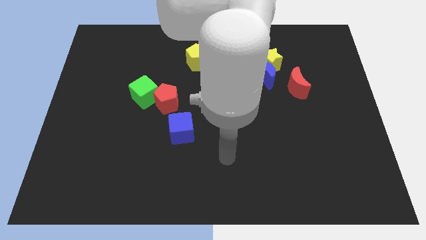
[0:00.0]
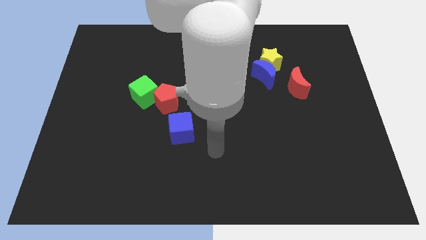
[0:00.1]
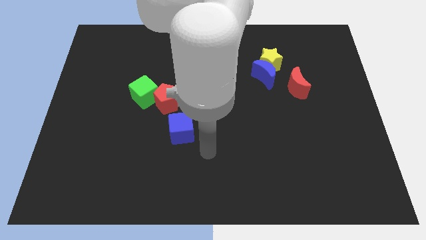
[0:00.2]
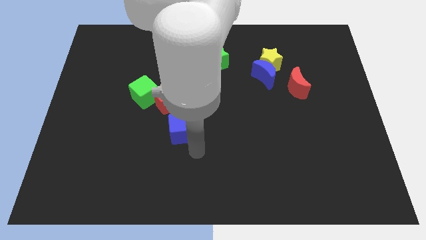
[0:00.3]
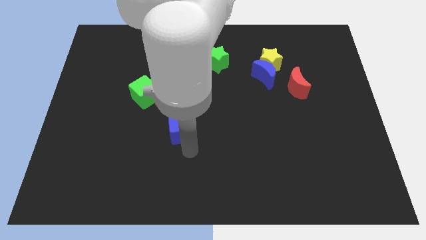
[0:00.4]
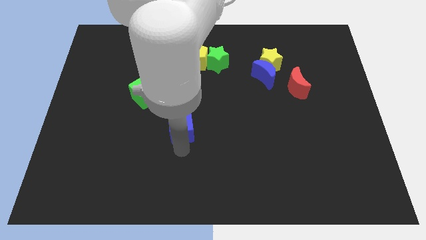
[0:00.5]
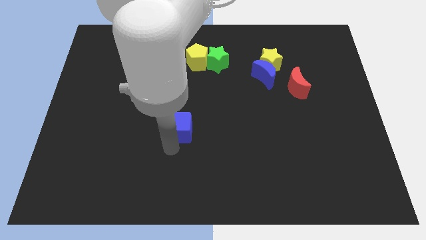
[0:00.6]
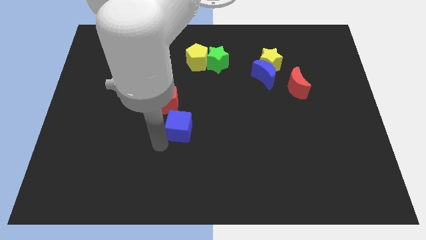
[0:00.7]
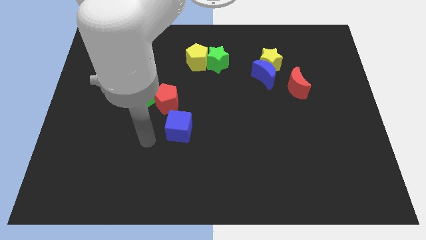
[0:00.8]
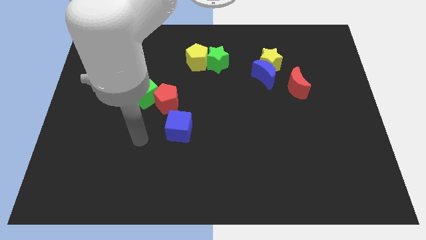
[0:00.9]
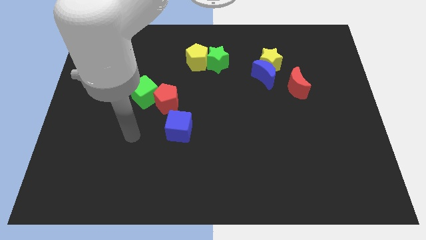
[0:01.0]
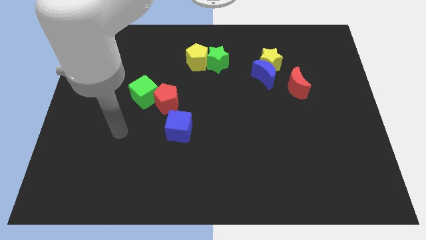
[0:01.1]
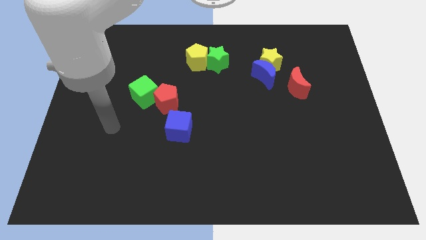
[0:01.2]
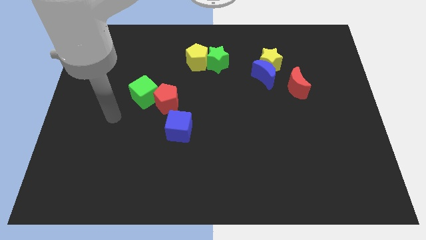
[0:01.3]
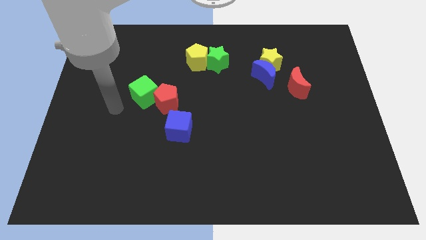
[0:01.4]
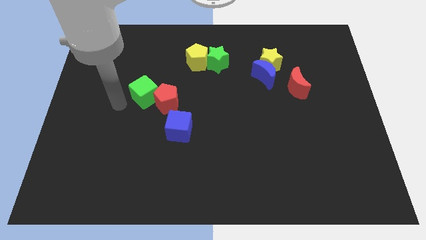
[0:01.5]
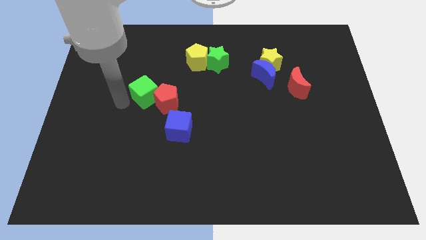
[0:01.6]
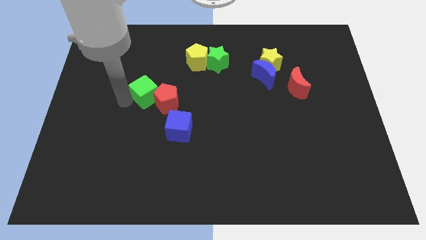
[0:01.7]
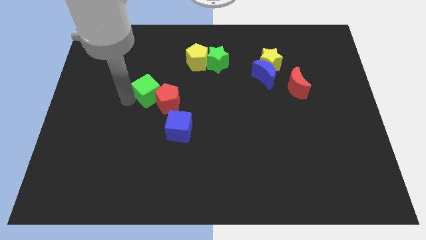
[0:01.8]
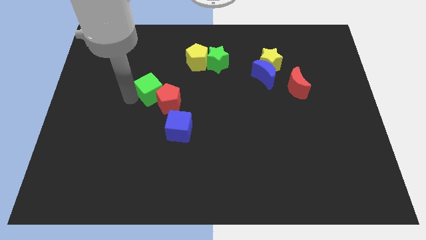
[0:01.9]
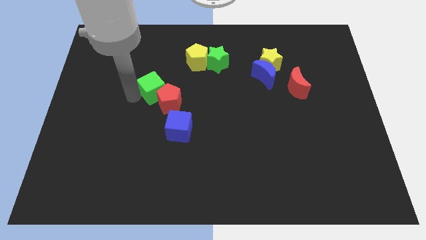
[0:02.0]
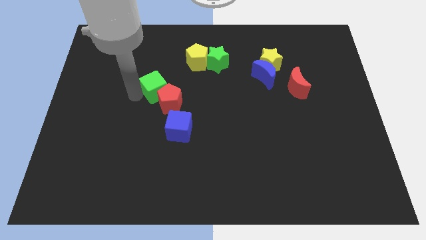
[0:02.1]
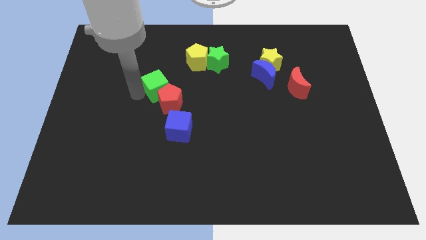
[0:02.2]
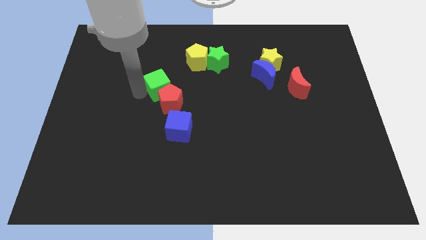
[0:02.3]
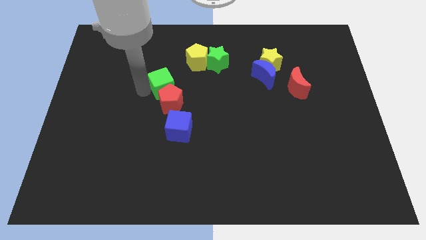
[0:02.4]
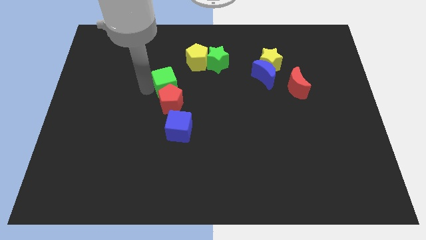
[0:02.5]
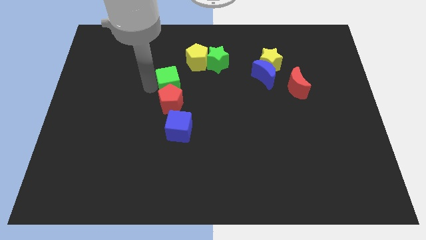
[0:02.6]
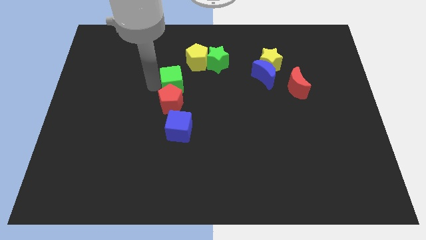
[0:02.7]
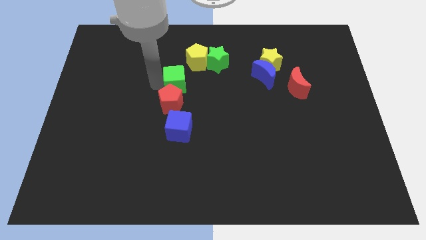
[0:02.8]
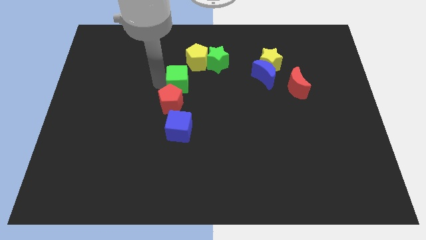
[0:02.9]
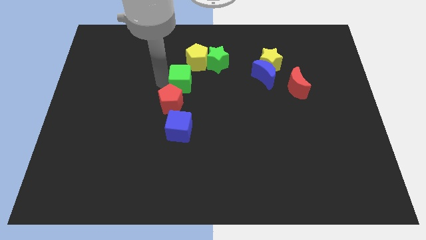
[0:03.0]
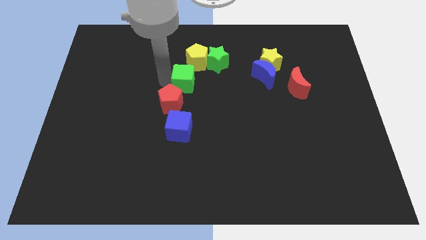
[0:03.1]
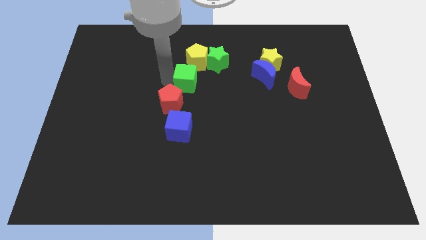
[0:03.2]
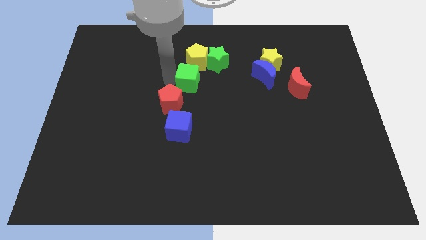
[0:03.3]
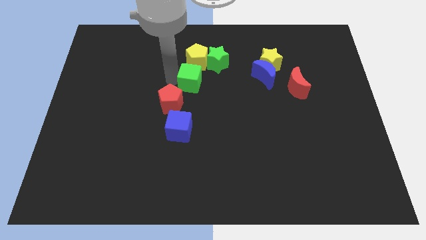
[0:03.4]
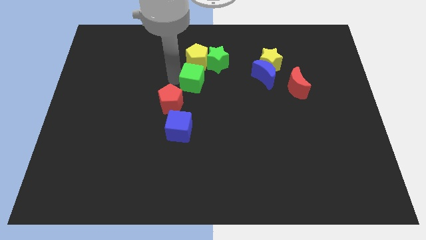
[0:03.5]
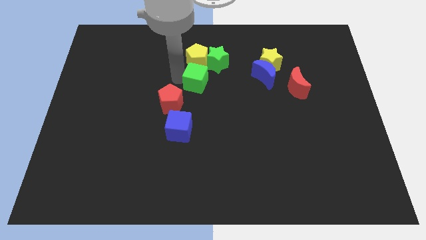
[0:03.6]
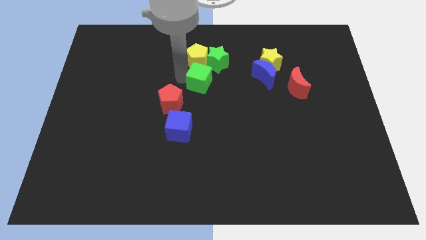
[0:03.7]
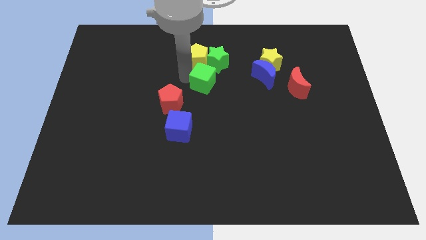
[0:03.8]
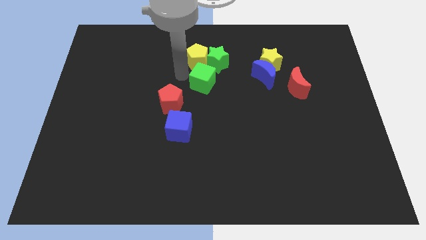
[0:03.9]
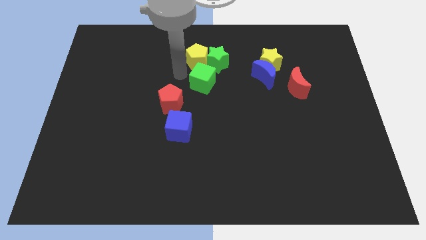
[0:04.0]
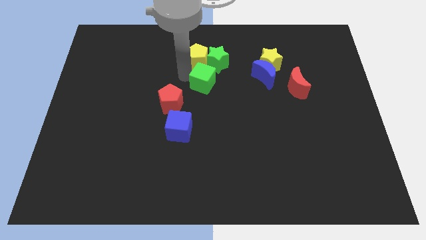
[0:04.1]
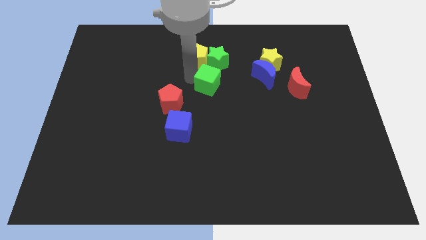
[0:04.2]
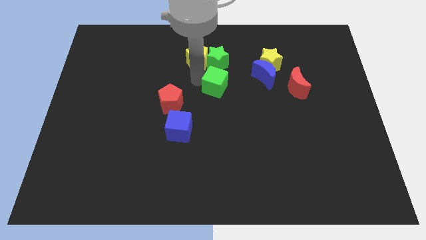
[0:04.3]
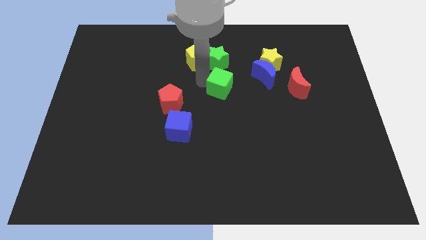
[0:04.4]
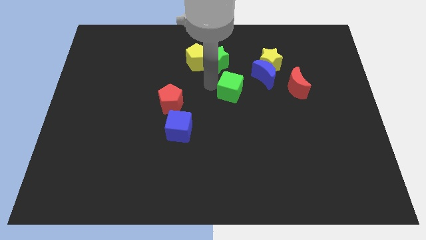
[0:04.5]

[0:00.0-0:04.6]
push the green cube to the right

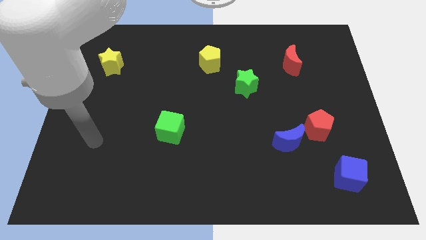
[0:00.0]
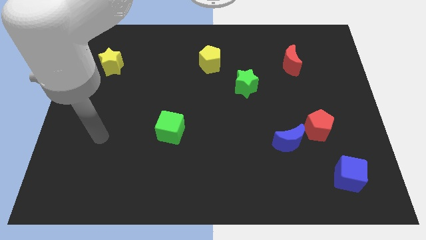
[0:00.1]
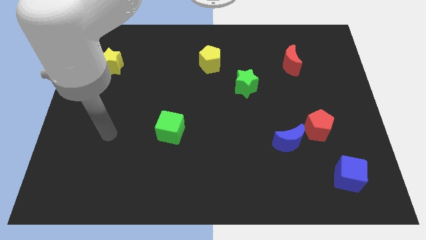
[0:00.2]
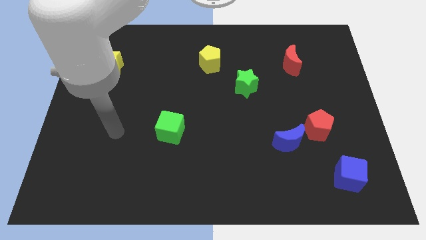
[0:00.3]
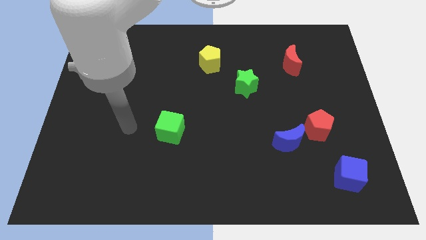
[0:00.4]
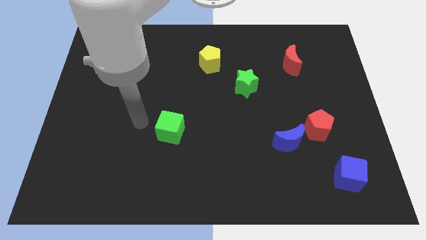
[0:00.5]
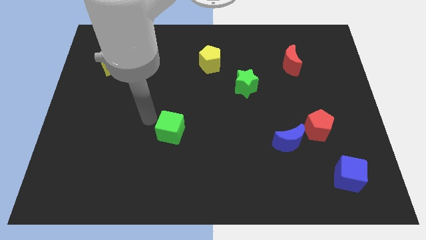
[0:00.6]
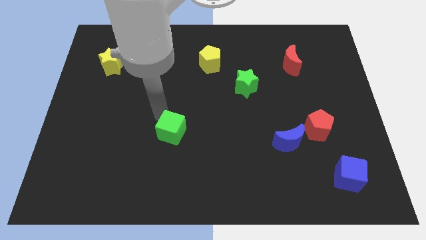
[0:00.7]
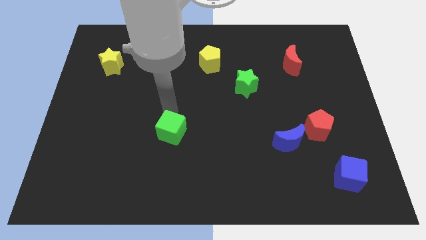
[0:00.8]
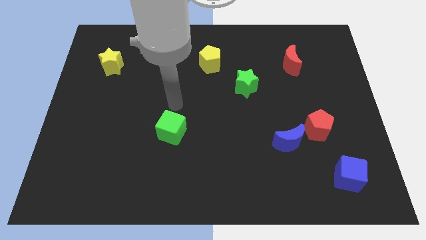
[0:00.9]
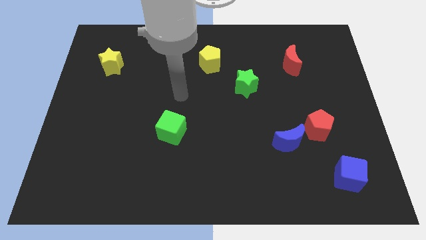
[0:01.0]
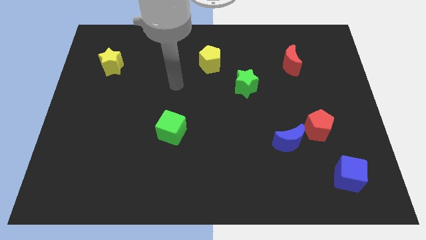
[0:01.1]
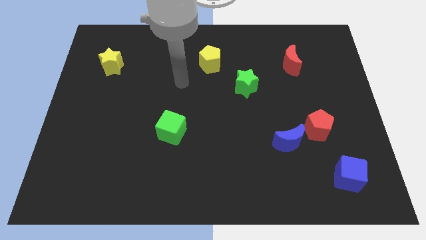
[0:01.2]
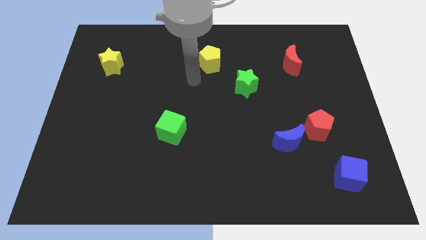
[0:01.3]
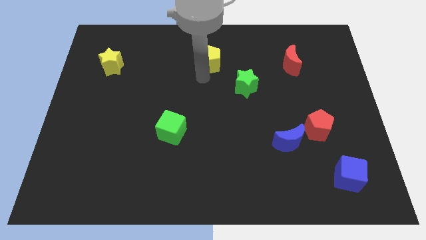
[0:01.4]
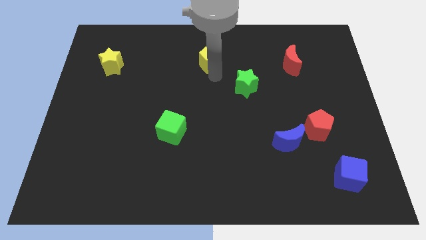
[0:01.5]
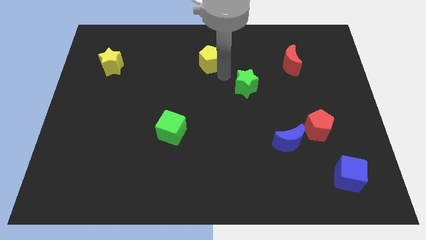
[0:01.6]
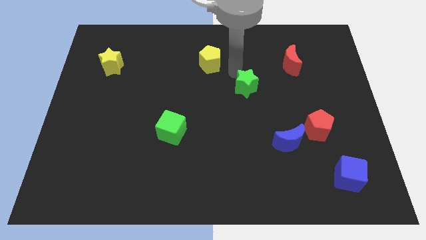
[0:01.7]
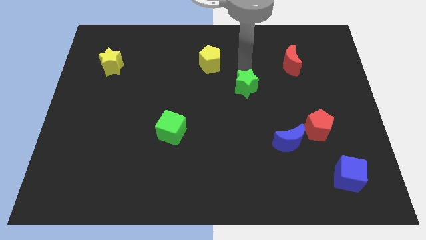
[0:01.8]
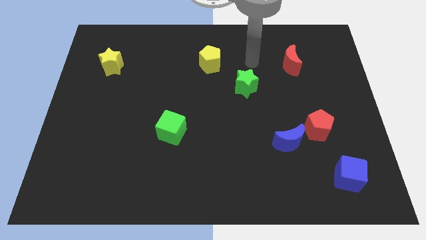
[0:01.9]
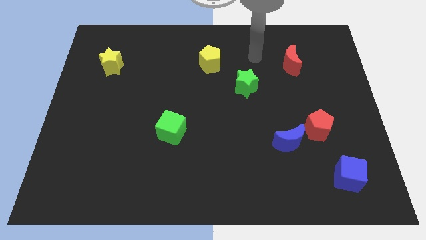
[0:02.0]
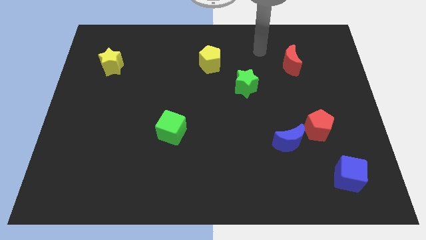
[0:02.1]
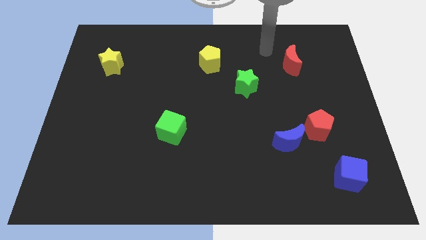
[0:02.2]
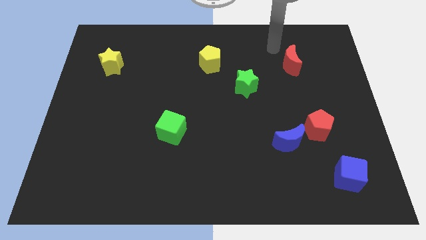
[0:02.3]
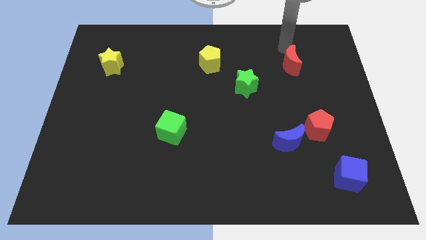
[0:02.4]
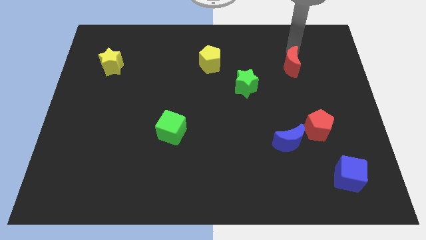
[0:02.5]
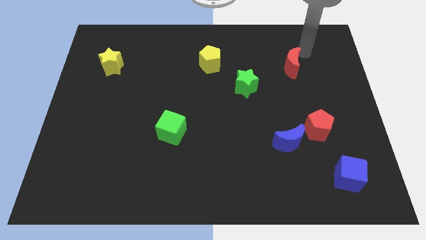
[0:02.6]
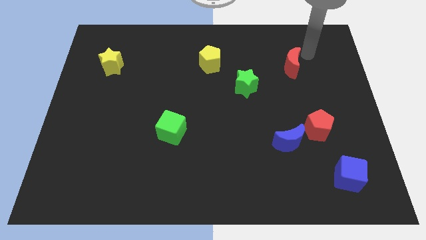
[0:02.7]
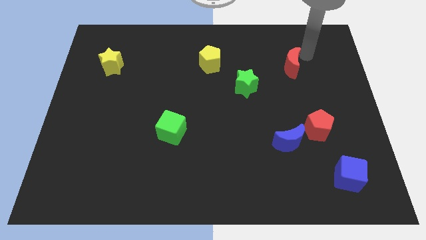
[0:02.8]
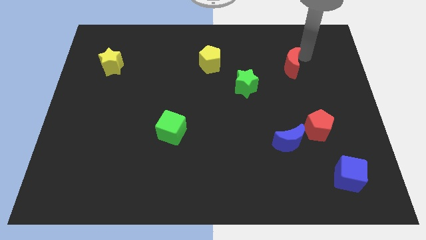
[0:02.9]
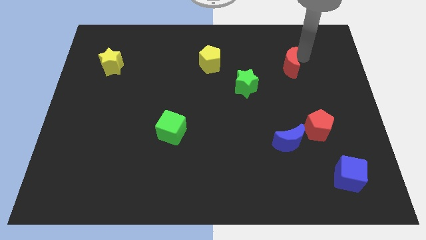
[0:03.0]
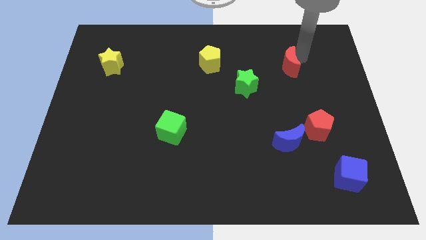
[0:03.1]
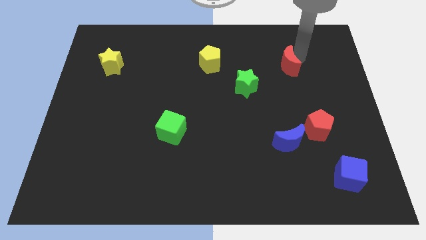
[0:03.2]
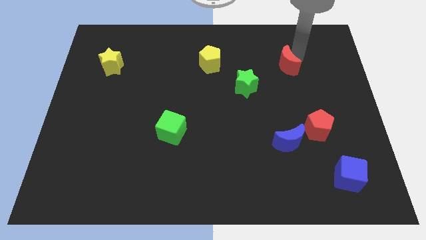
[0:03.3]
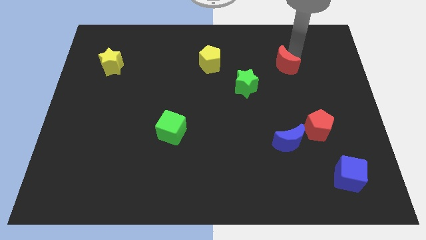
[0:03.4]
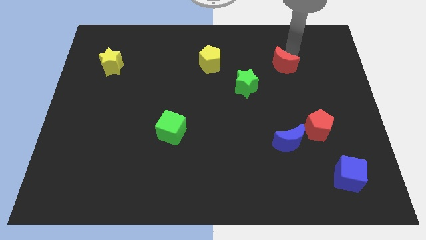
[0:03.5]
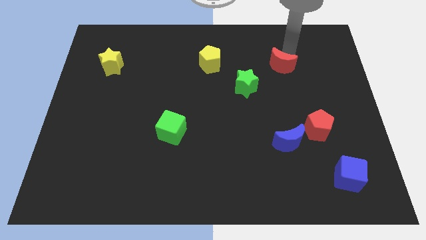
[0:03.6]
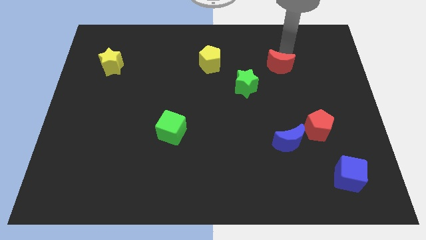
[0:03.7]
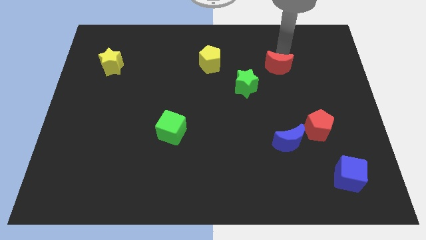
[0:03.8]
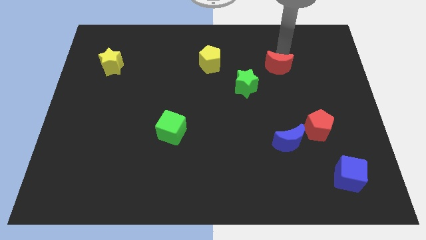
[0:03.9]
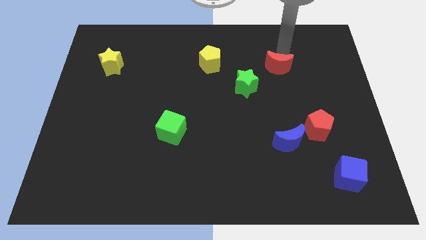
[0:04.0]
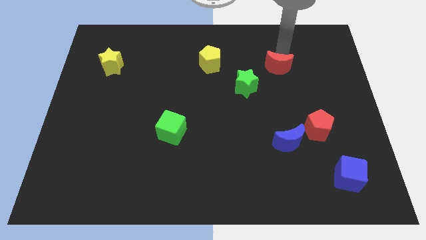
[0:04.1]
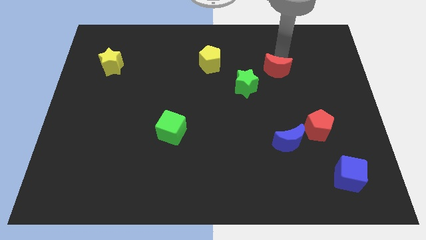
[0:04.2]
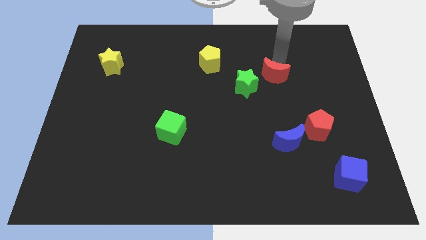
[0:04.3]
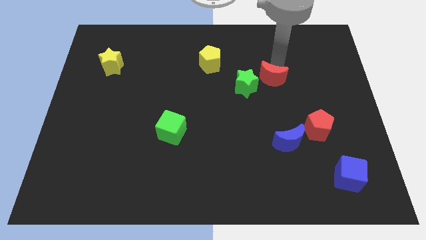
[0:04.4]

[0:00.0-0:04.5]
slide the red moon a little downwards and then left
